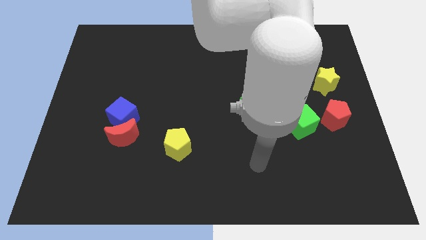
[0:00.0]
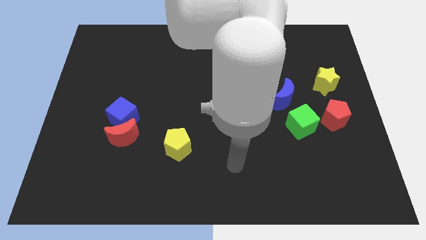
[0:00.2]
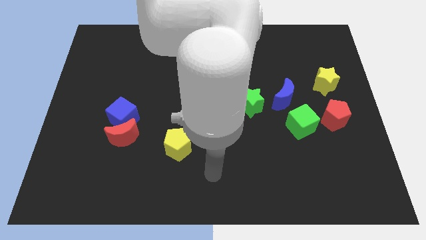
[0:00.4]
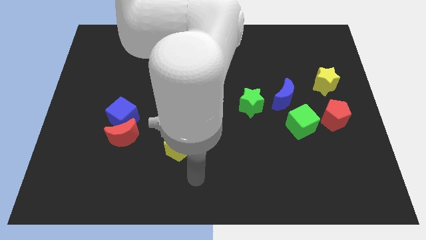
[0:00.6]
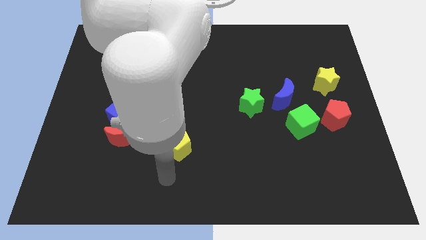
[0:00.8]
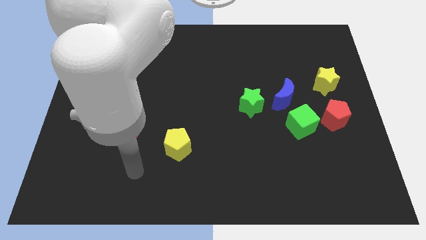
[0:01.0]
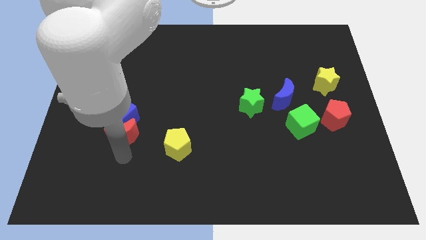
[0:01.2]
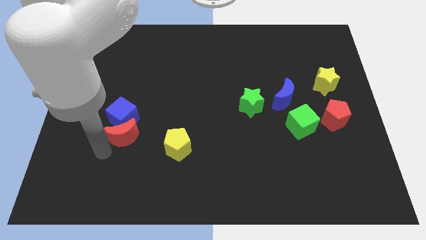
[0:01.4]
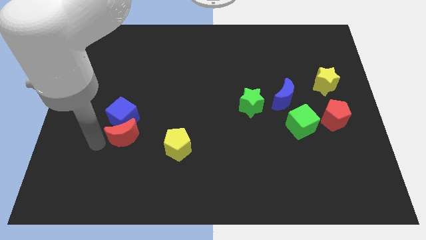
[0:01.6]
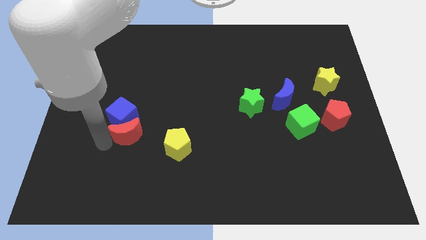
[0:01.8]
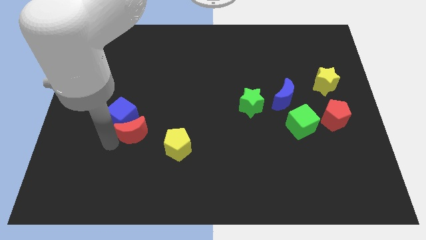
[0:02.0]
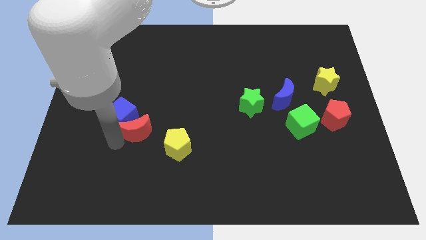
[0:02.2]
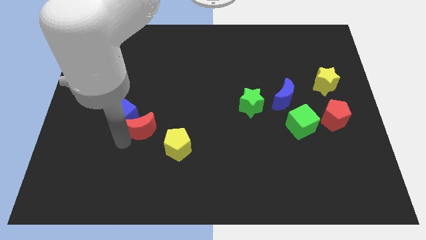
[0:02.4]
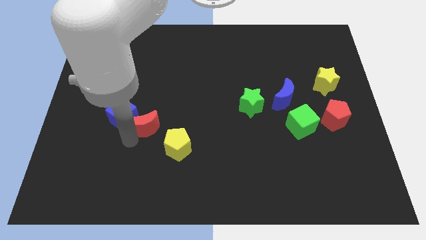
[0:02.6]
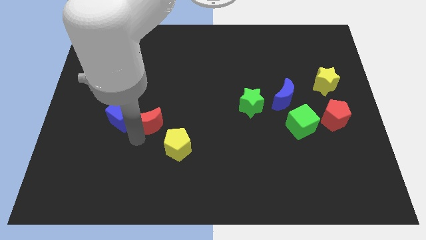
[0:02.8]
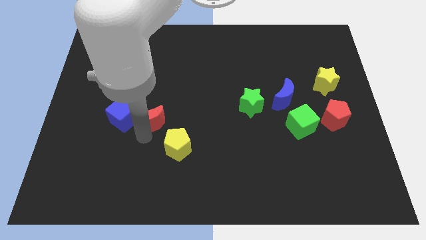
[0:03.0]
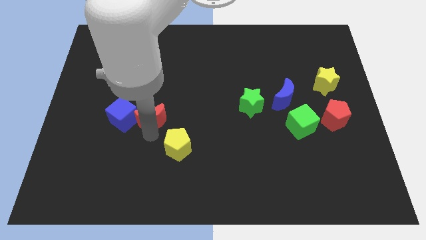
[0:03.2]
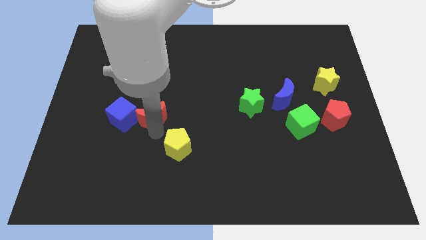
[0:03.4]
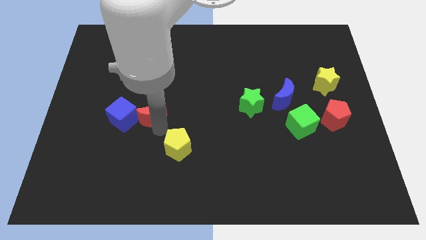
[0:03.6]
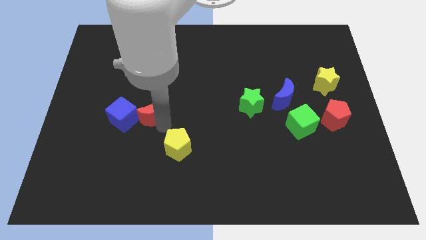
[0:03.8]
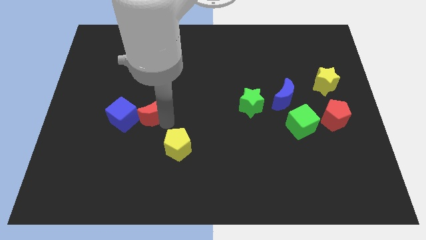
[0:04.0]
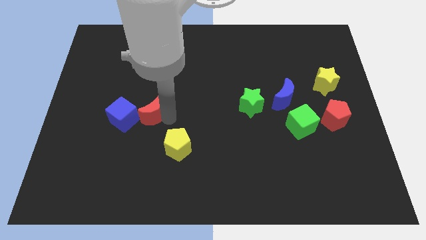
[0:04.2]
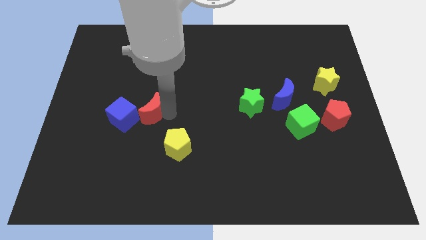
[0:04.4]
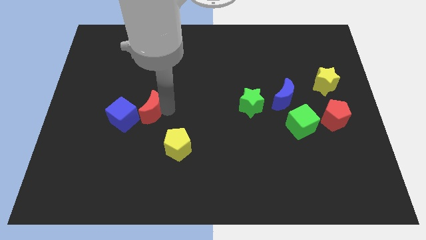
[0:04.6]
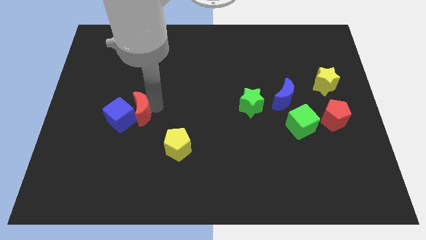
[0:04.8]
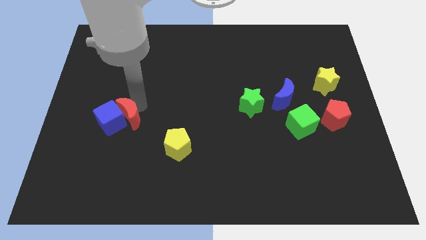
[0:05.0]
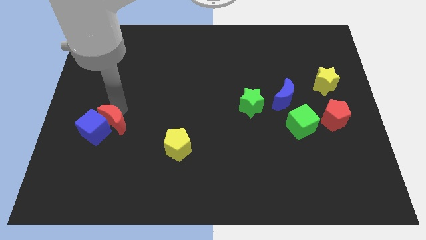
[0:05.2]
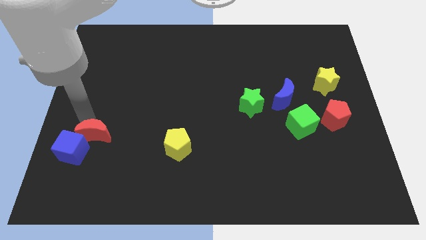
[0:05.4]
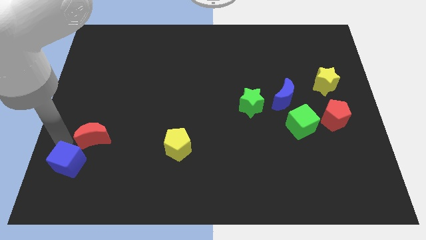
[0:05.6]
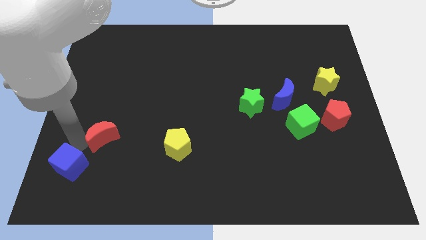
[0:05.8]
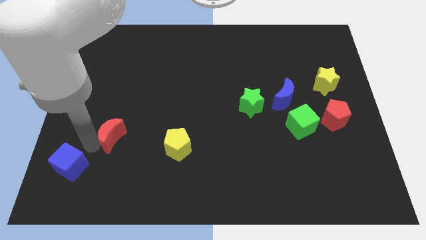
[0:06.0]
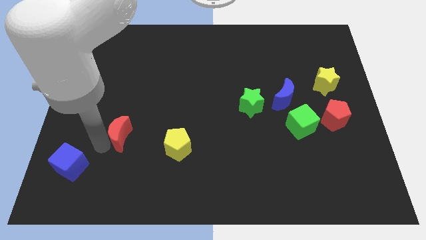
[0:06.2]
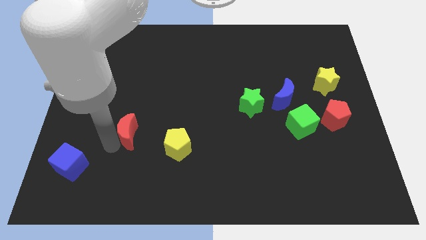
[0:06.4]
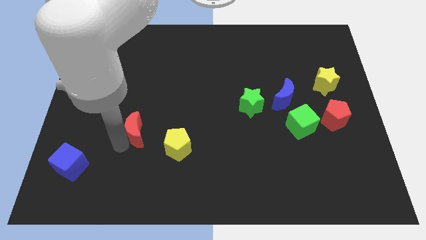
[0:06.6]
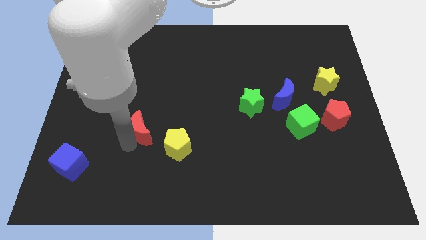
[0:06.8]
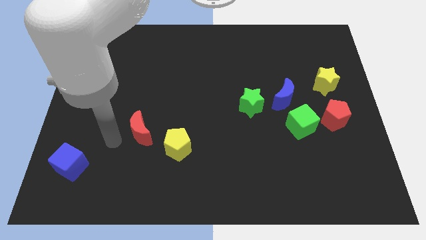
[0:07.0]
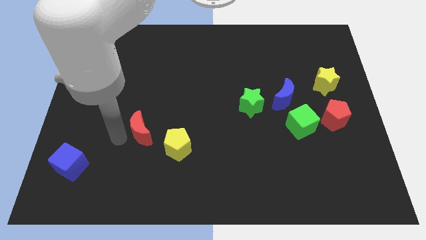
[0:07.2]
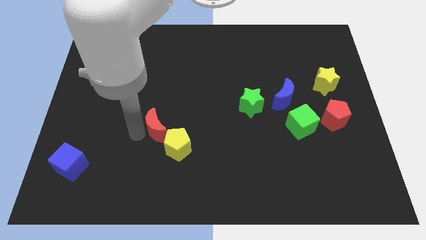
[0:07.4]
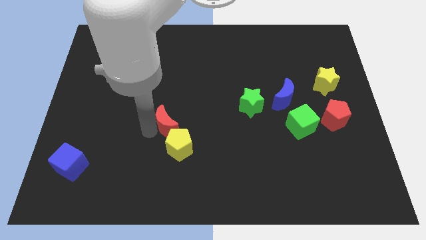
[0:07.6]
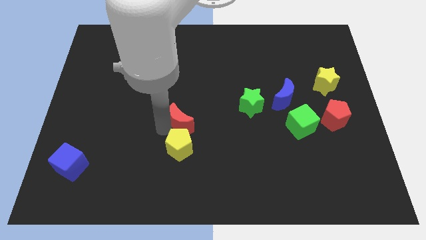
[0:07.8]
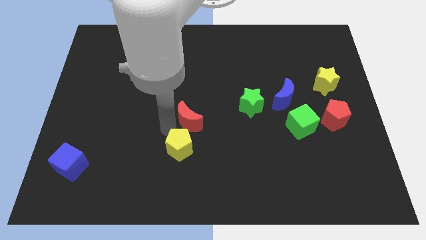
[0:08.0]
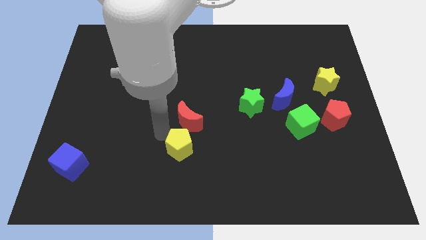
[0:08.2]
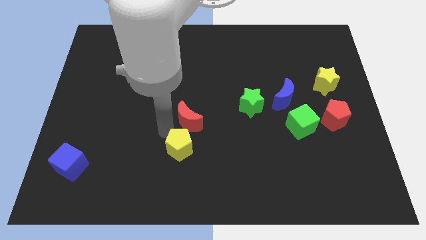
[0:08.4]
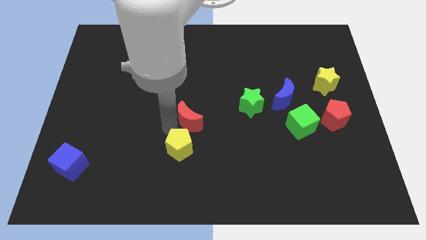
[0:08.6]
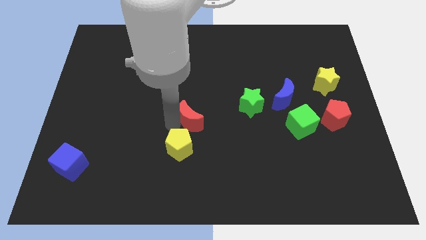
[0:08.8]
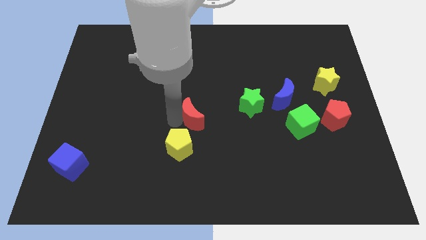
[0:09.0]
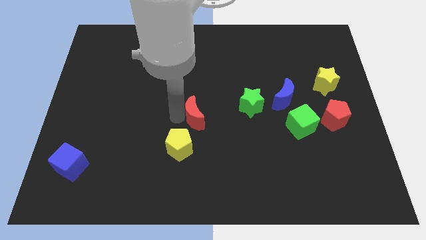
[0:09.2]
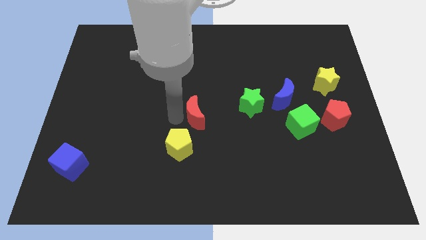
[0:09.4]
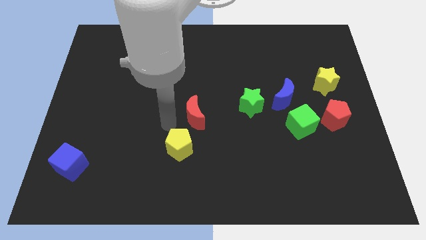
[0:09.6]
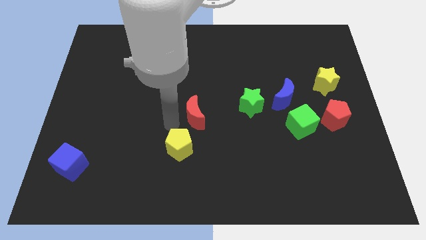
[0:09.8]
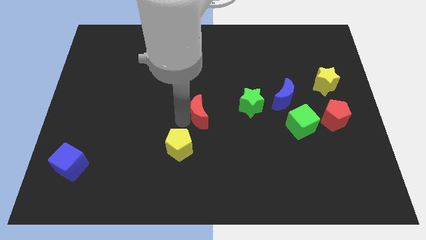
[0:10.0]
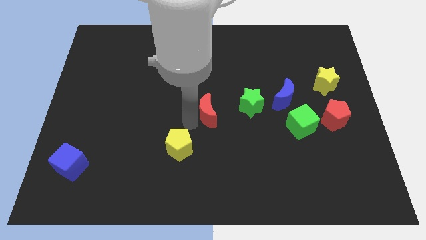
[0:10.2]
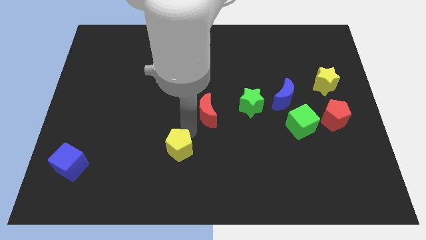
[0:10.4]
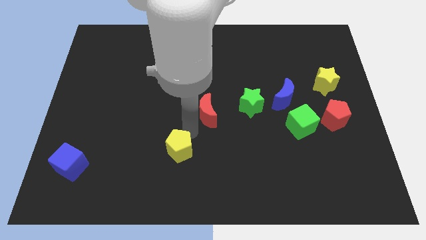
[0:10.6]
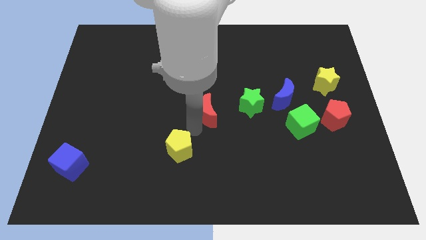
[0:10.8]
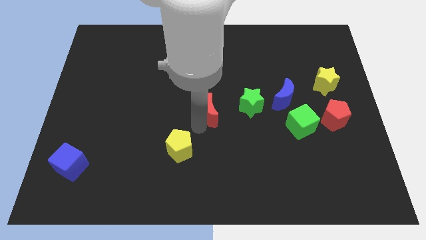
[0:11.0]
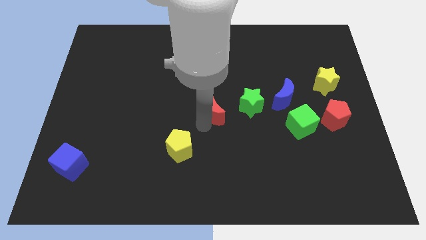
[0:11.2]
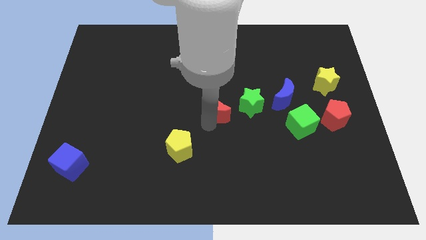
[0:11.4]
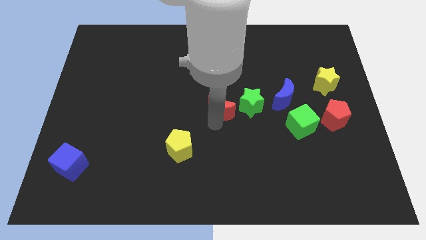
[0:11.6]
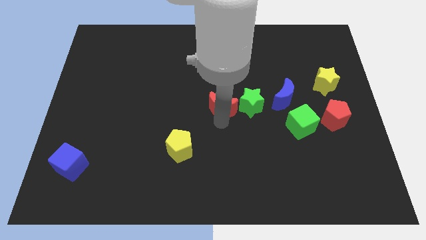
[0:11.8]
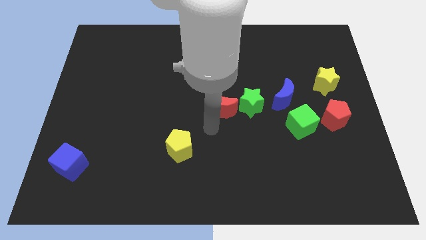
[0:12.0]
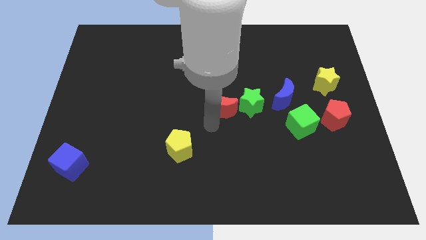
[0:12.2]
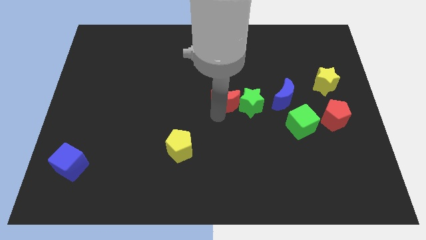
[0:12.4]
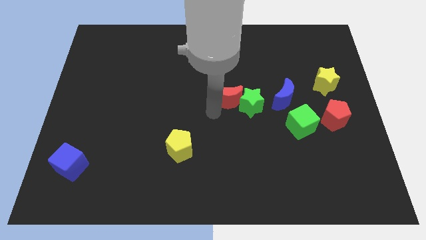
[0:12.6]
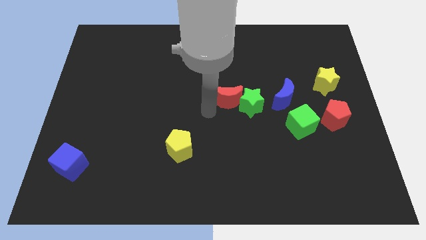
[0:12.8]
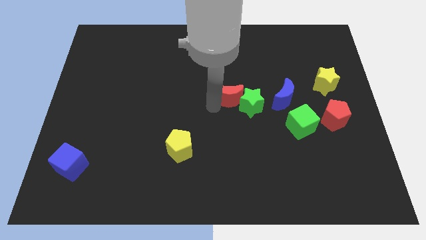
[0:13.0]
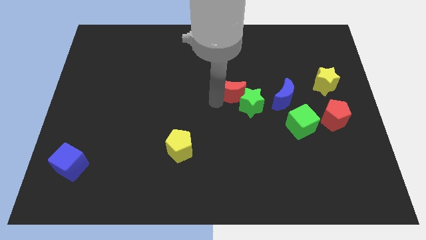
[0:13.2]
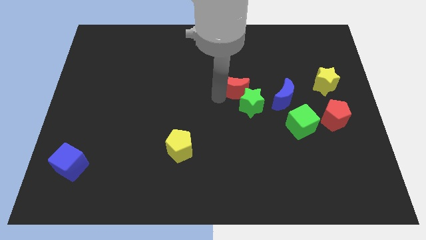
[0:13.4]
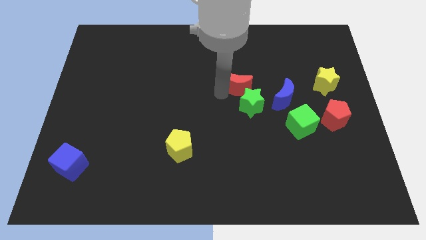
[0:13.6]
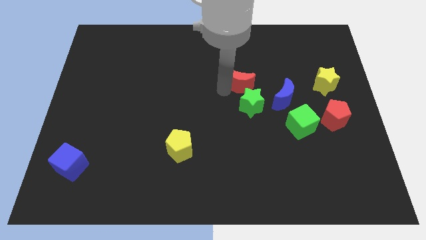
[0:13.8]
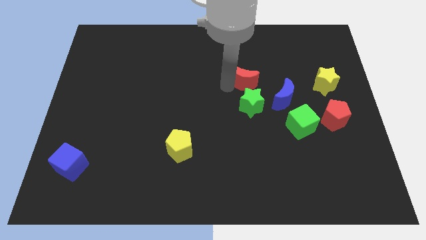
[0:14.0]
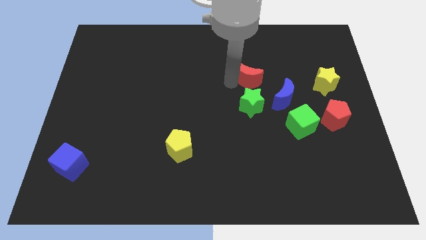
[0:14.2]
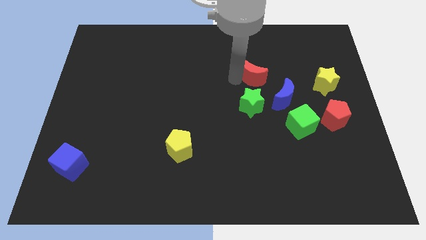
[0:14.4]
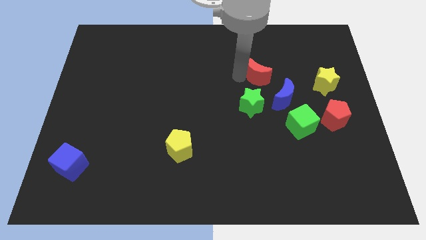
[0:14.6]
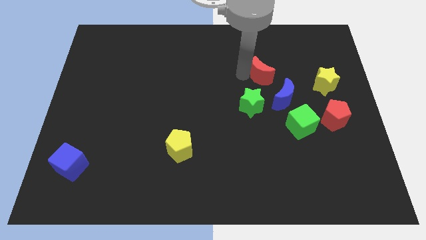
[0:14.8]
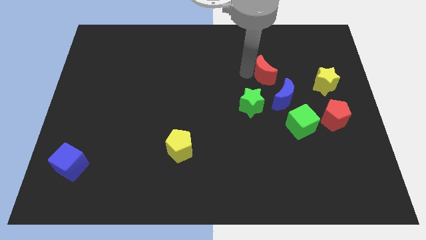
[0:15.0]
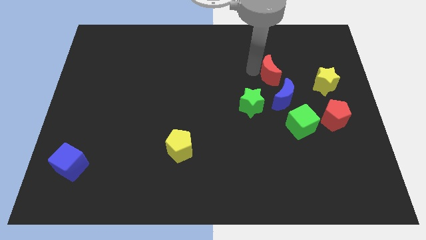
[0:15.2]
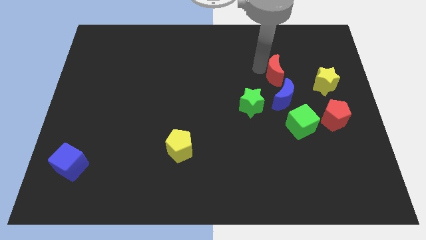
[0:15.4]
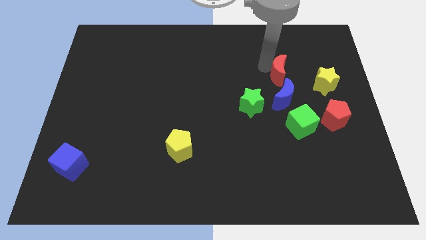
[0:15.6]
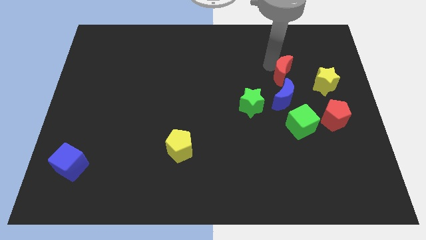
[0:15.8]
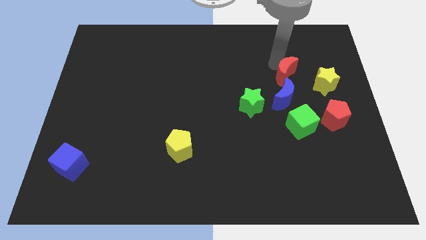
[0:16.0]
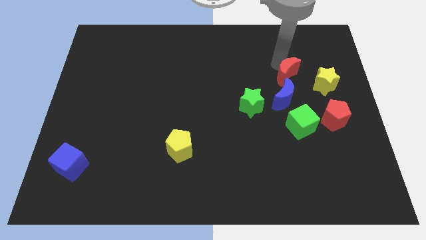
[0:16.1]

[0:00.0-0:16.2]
slide the red moon to the top right of the blue moon
